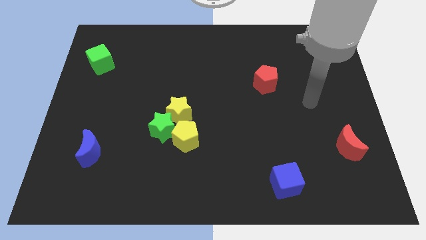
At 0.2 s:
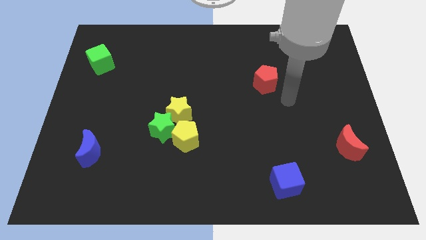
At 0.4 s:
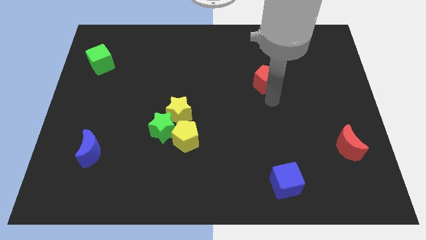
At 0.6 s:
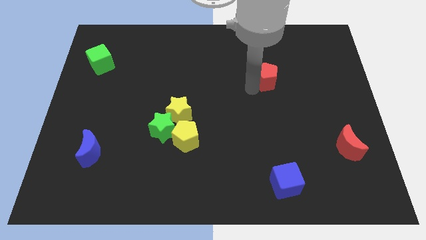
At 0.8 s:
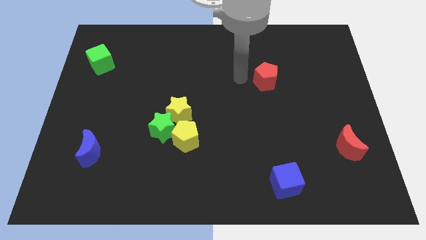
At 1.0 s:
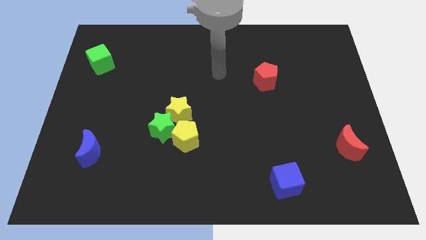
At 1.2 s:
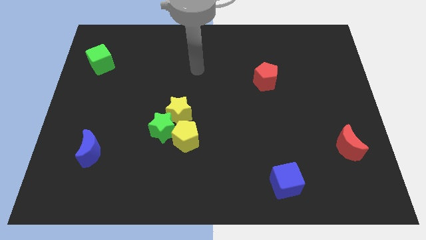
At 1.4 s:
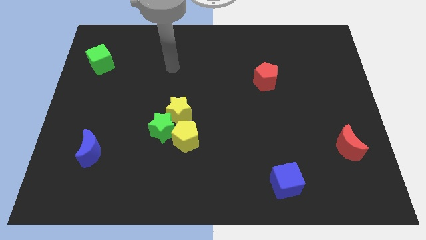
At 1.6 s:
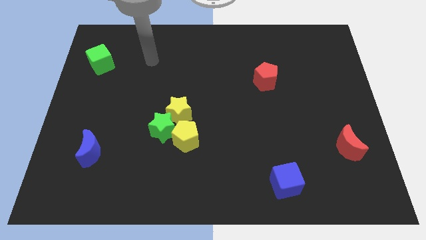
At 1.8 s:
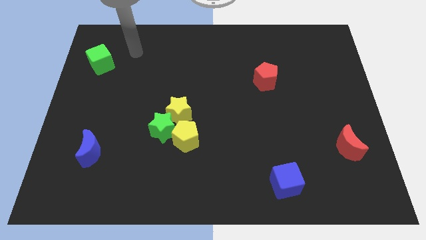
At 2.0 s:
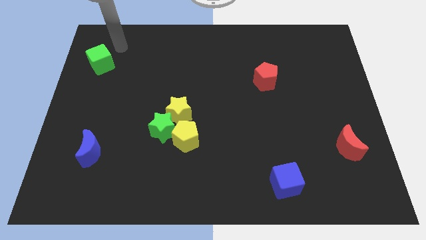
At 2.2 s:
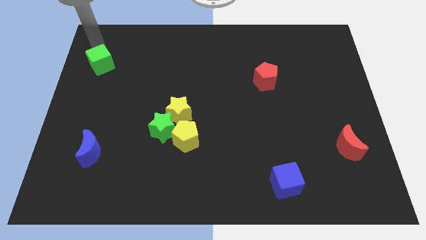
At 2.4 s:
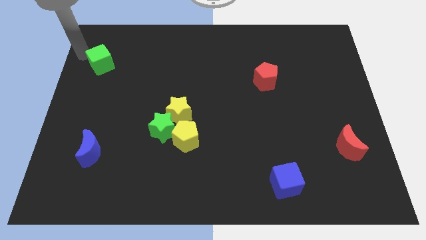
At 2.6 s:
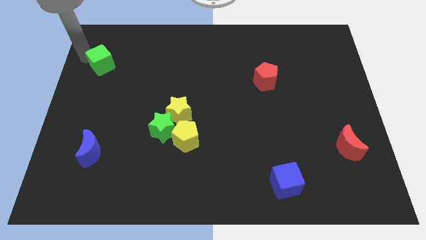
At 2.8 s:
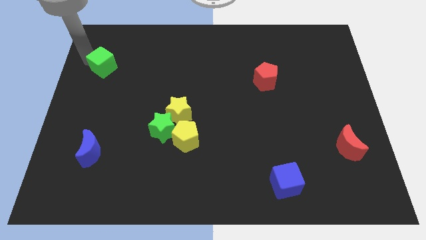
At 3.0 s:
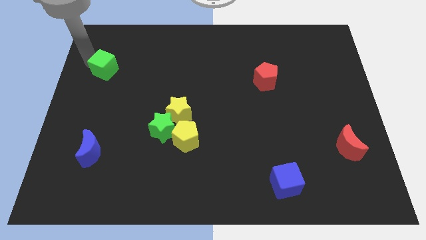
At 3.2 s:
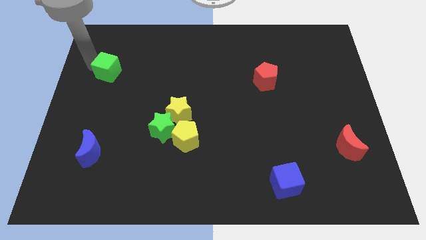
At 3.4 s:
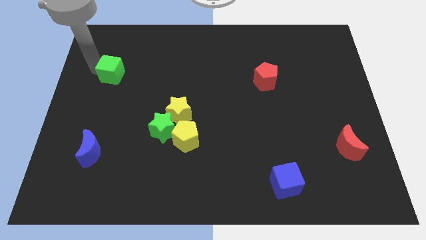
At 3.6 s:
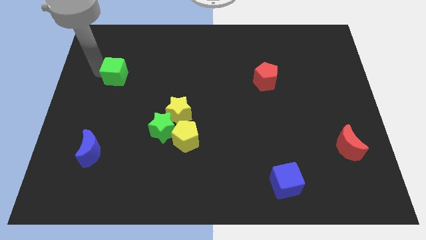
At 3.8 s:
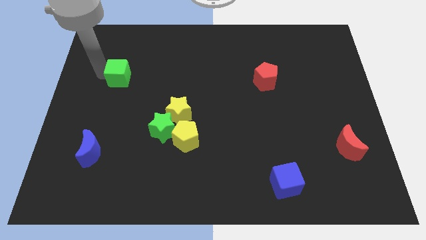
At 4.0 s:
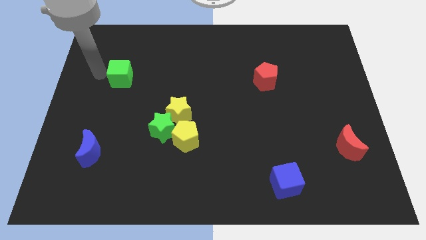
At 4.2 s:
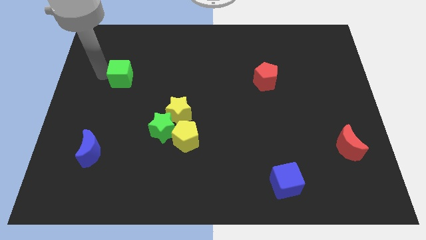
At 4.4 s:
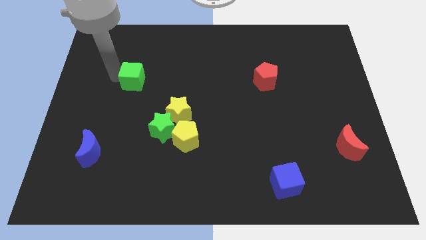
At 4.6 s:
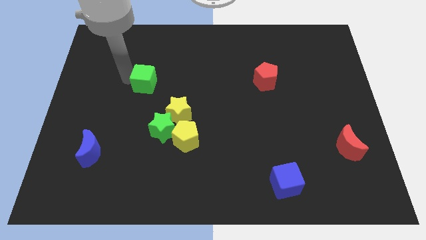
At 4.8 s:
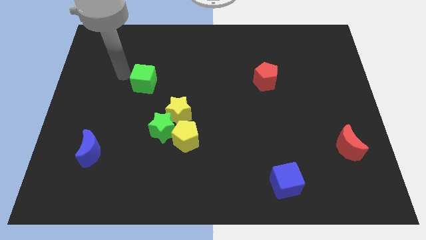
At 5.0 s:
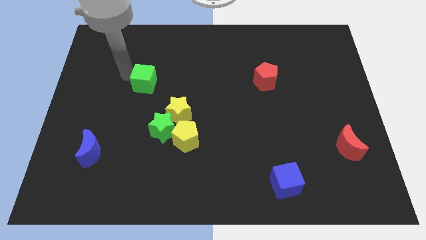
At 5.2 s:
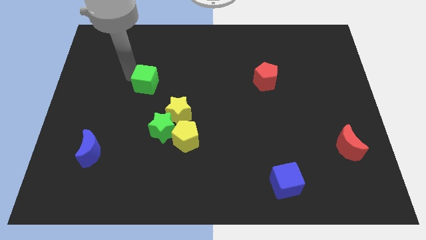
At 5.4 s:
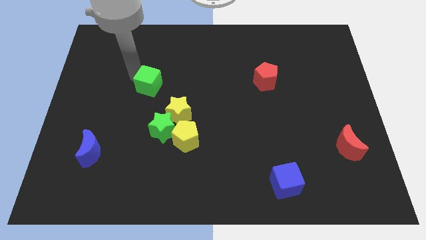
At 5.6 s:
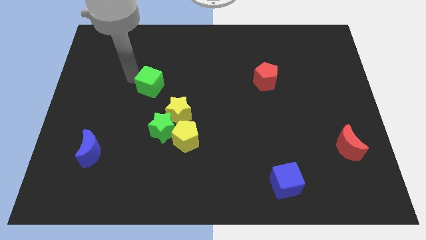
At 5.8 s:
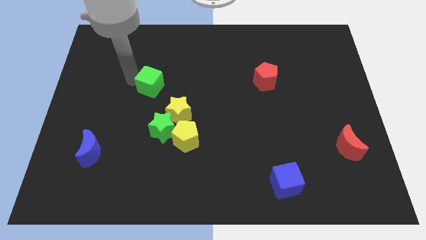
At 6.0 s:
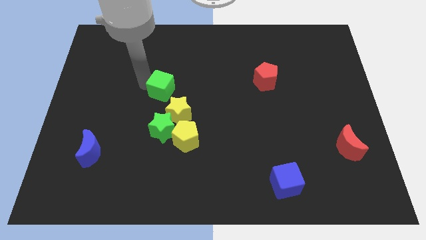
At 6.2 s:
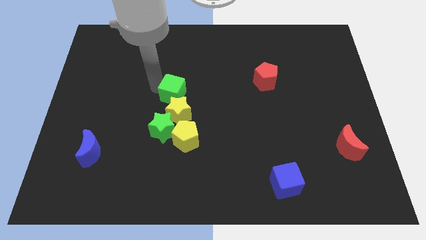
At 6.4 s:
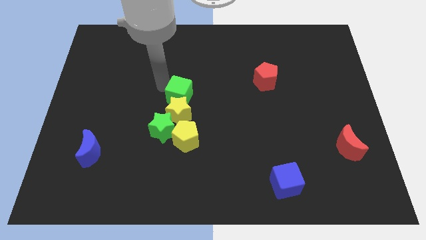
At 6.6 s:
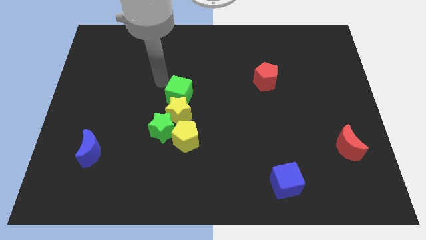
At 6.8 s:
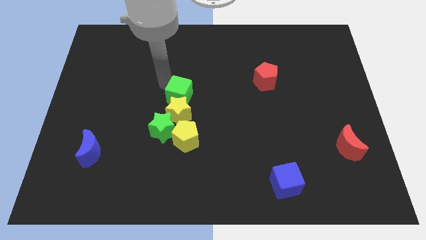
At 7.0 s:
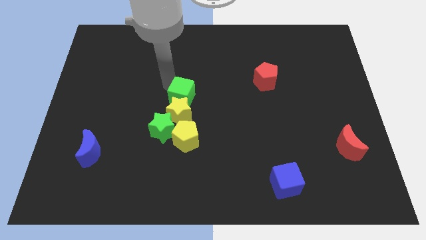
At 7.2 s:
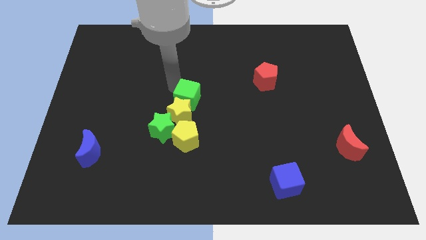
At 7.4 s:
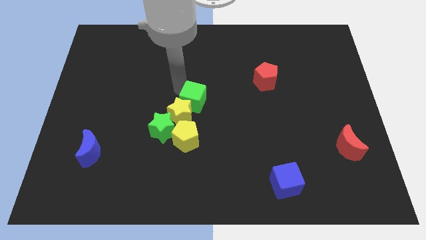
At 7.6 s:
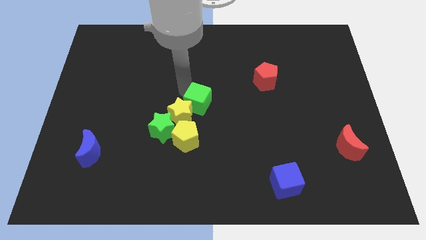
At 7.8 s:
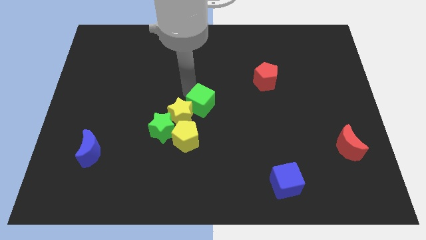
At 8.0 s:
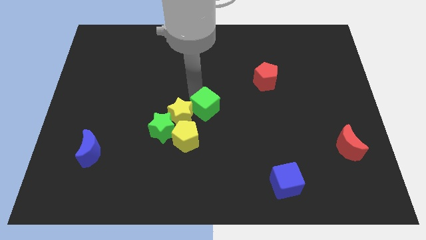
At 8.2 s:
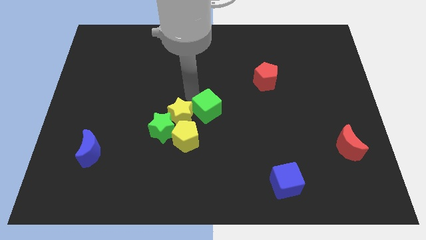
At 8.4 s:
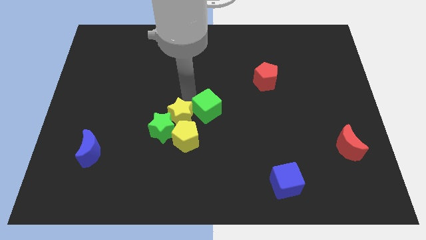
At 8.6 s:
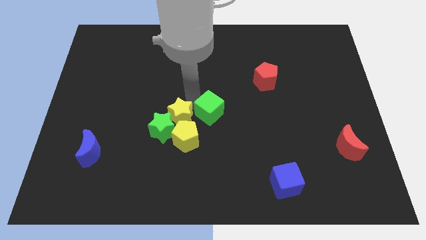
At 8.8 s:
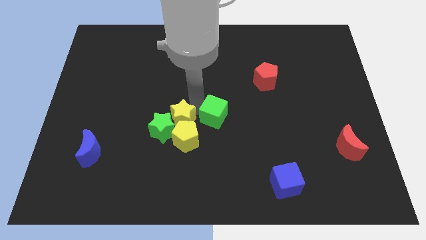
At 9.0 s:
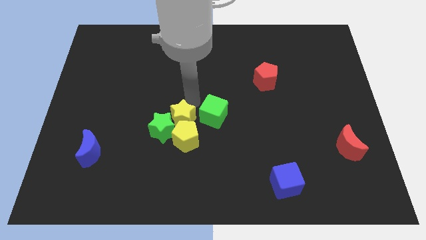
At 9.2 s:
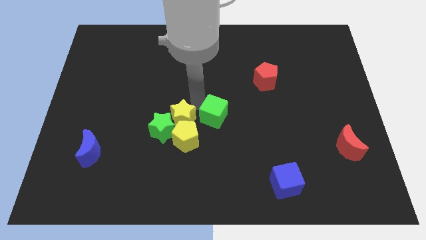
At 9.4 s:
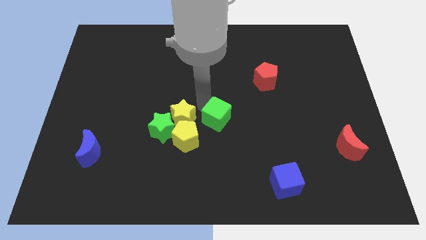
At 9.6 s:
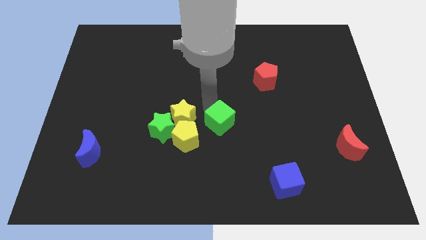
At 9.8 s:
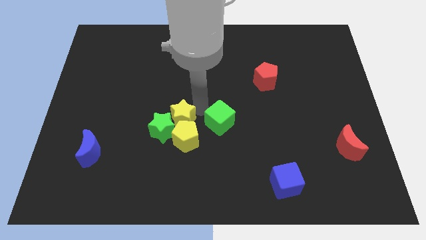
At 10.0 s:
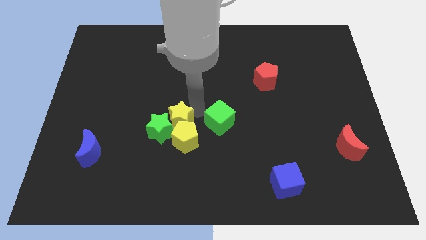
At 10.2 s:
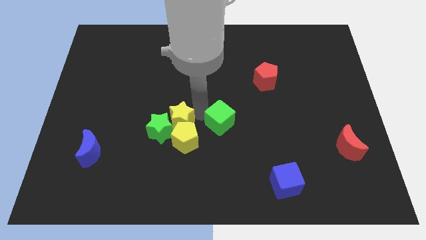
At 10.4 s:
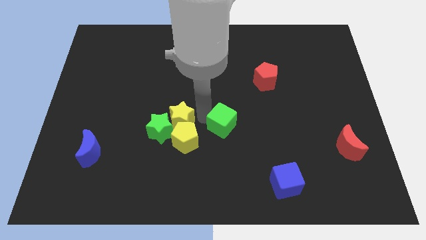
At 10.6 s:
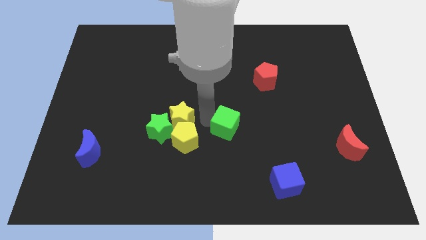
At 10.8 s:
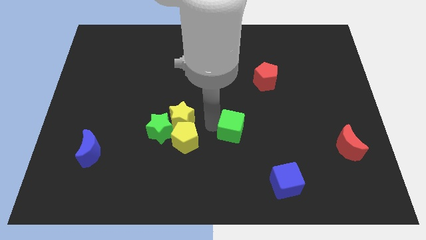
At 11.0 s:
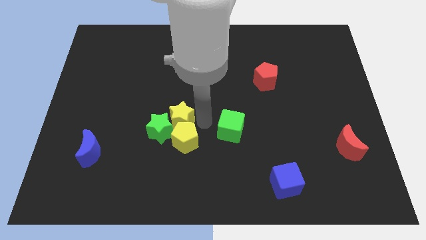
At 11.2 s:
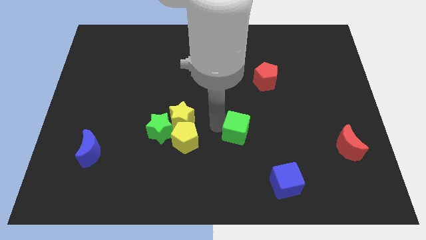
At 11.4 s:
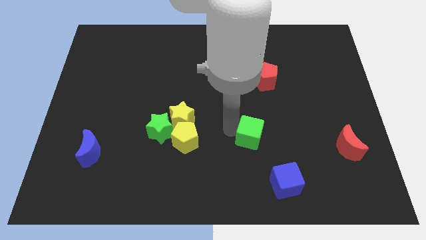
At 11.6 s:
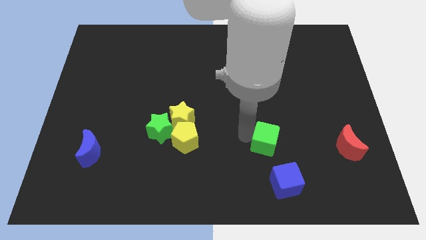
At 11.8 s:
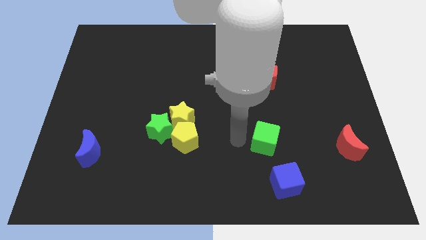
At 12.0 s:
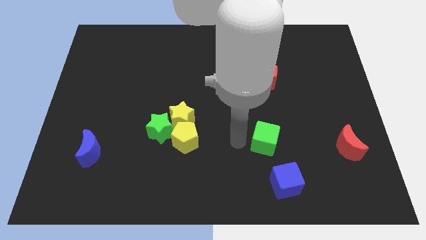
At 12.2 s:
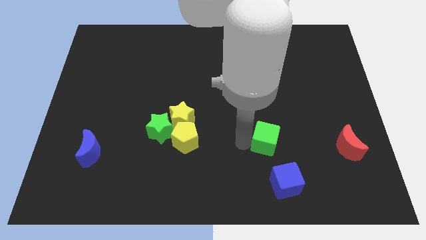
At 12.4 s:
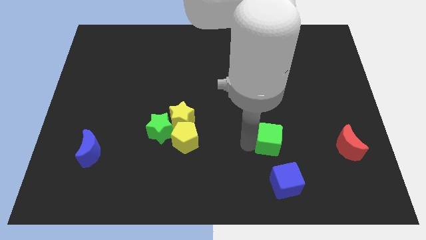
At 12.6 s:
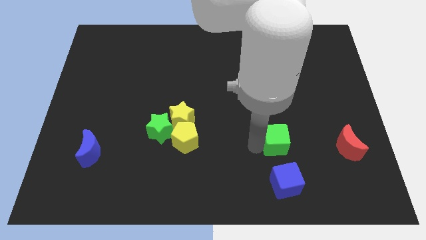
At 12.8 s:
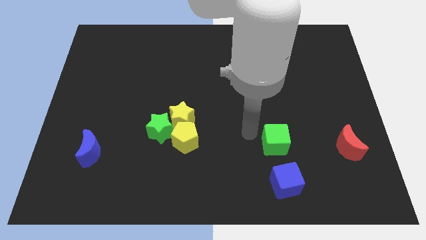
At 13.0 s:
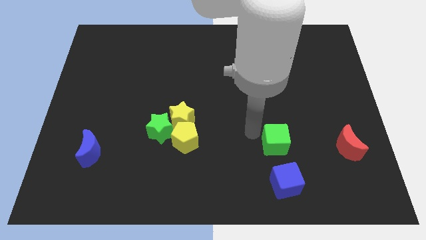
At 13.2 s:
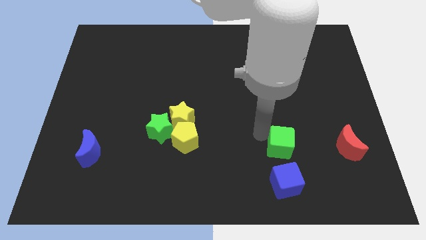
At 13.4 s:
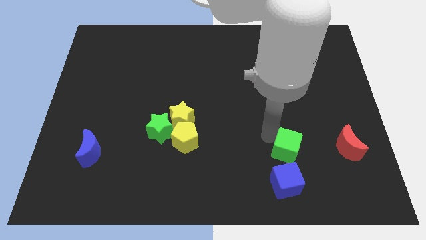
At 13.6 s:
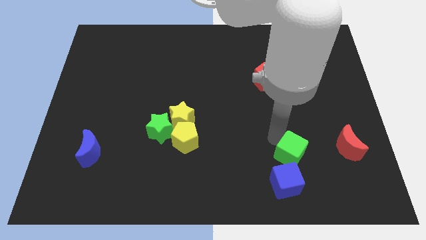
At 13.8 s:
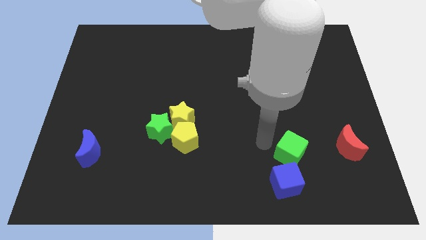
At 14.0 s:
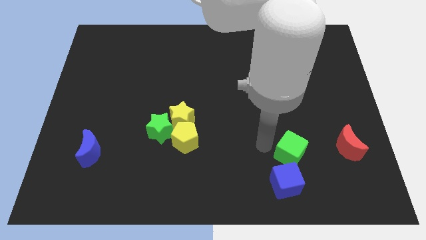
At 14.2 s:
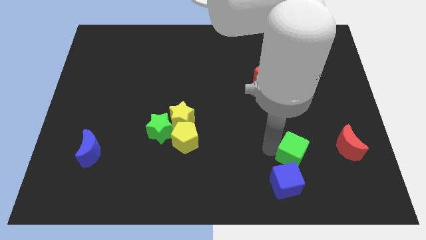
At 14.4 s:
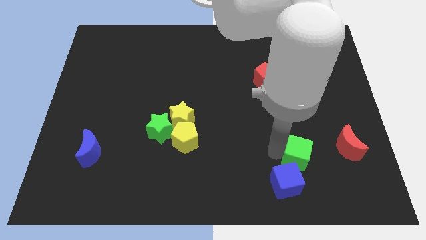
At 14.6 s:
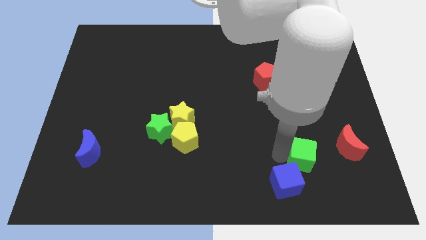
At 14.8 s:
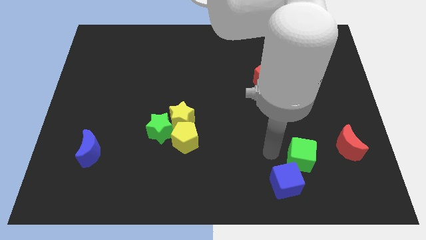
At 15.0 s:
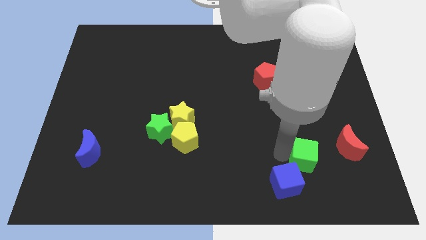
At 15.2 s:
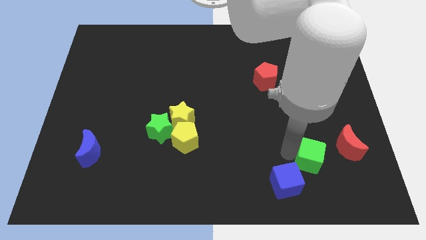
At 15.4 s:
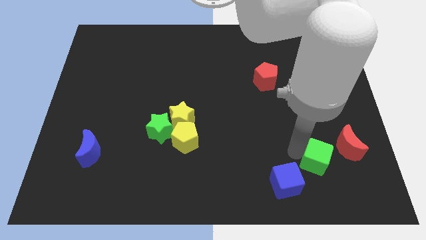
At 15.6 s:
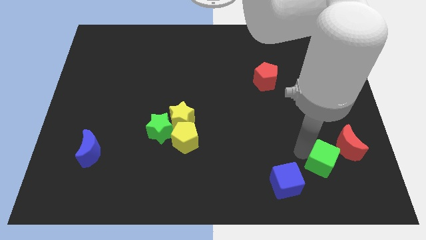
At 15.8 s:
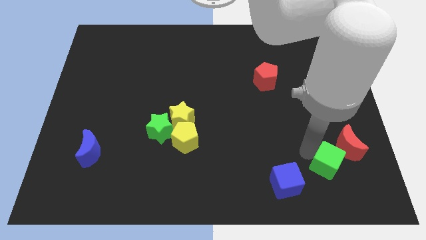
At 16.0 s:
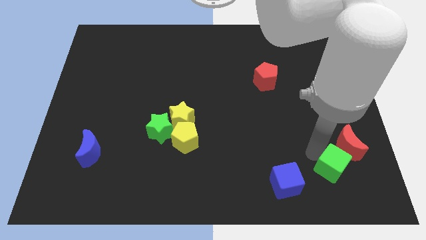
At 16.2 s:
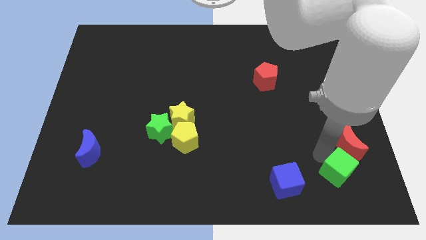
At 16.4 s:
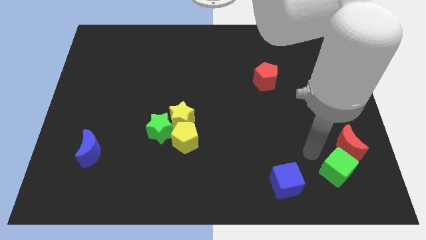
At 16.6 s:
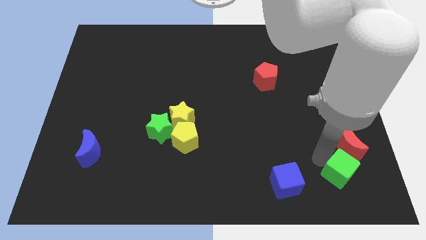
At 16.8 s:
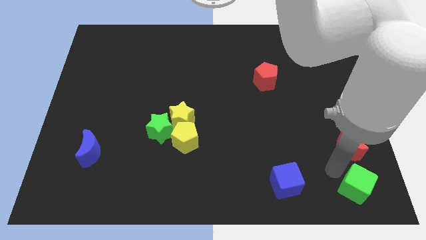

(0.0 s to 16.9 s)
put the green cube to the bottom right of the board
